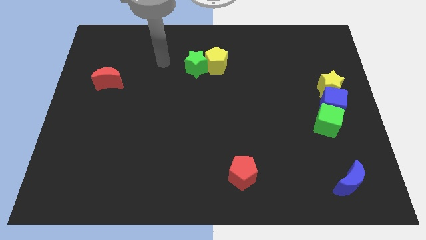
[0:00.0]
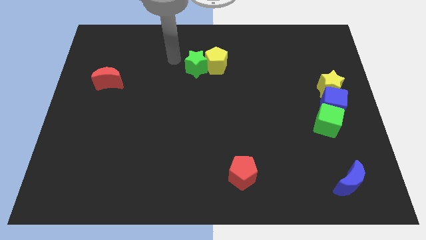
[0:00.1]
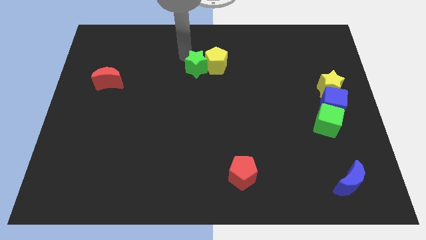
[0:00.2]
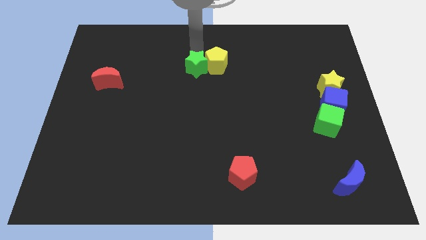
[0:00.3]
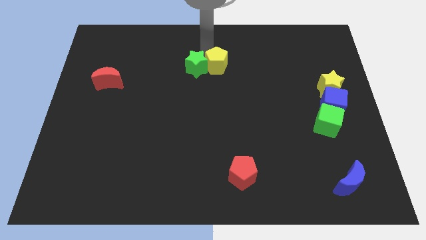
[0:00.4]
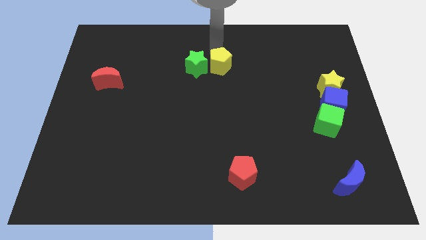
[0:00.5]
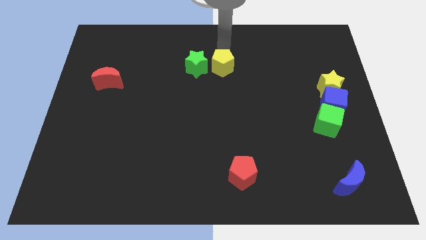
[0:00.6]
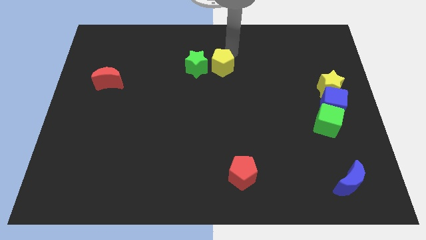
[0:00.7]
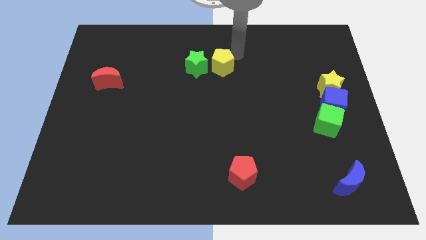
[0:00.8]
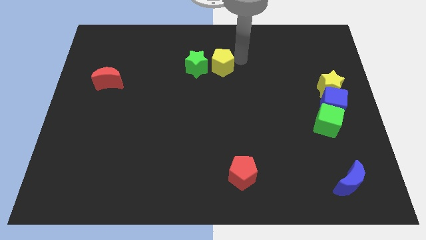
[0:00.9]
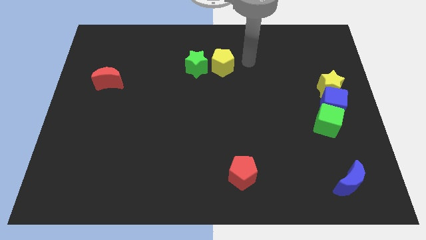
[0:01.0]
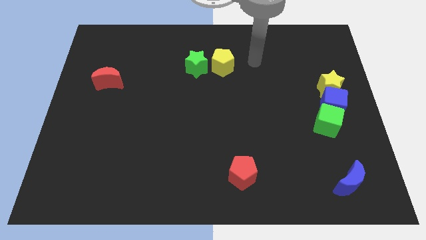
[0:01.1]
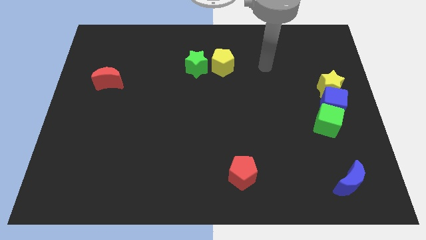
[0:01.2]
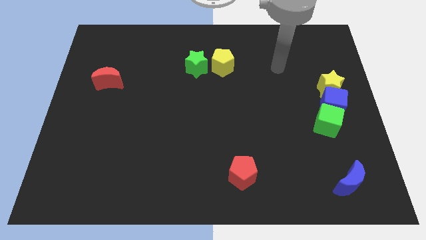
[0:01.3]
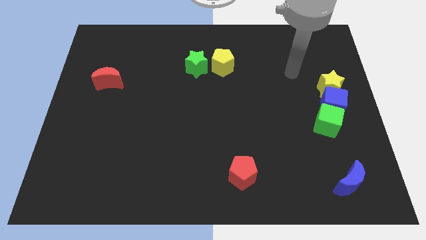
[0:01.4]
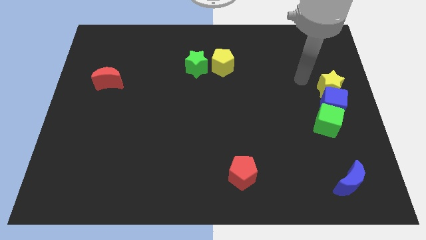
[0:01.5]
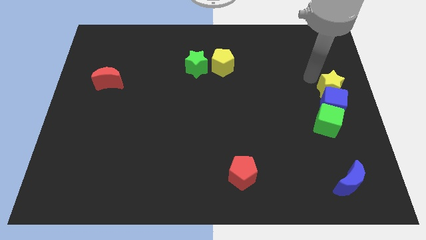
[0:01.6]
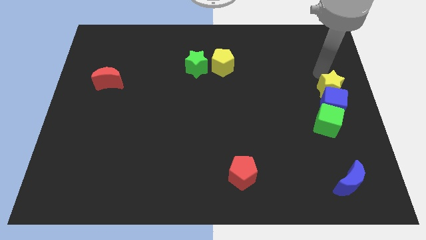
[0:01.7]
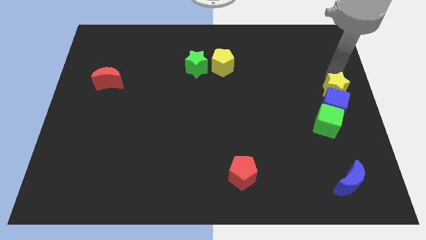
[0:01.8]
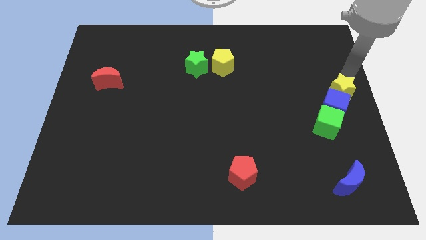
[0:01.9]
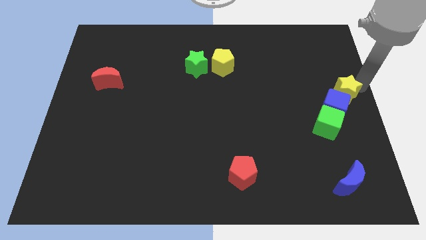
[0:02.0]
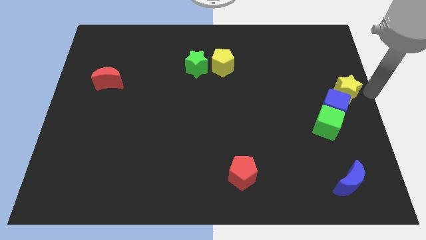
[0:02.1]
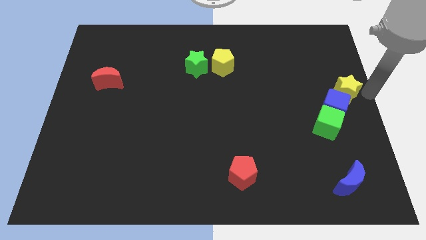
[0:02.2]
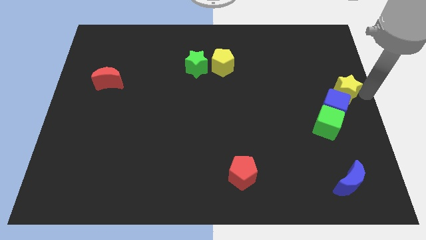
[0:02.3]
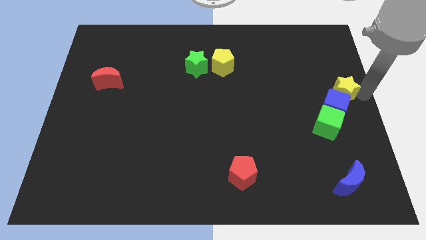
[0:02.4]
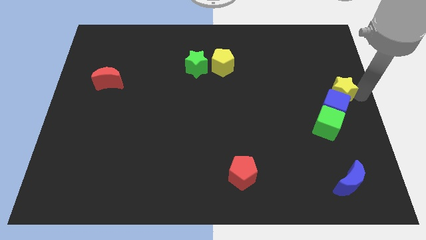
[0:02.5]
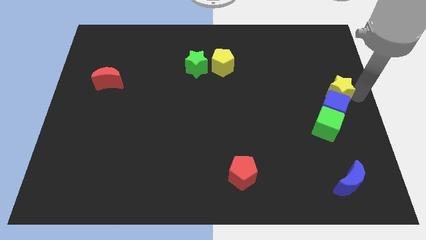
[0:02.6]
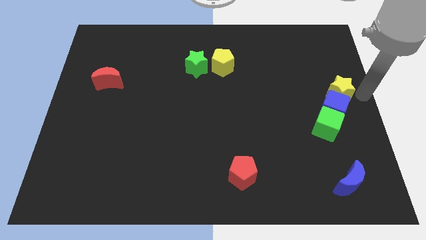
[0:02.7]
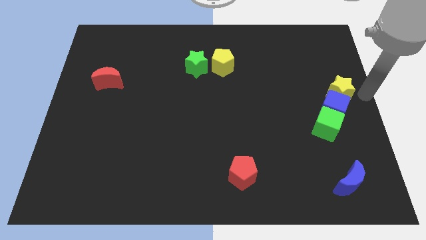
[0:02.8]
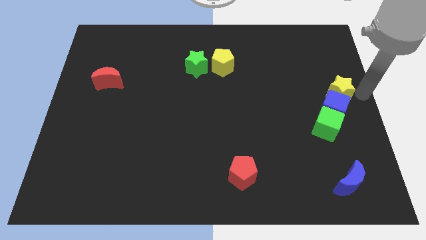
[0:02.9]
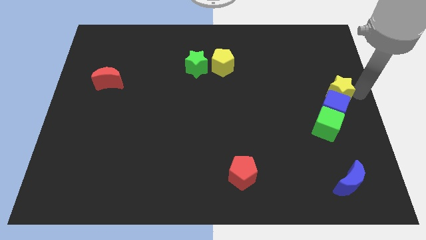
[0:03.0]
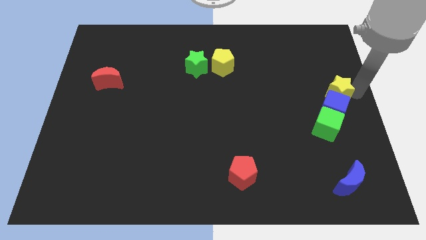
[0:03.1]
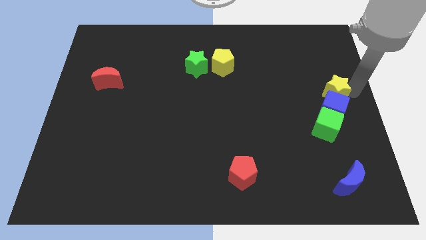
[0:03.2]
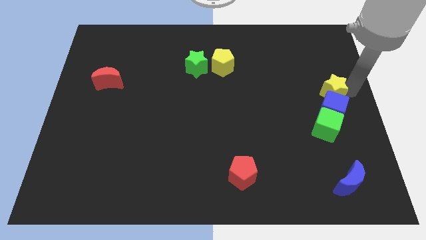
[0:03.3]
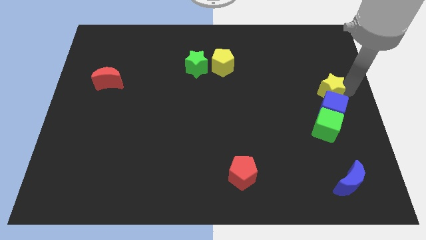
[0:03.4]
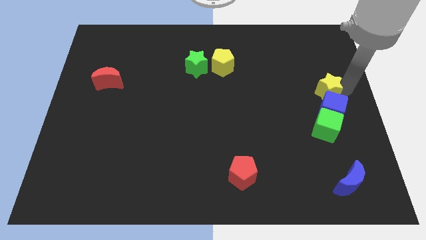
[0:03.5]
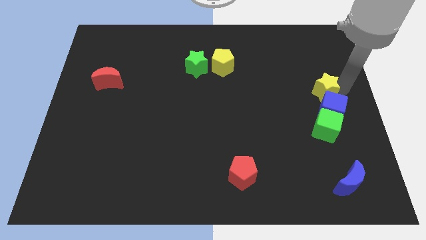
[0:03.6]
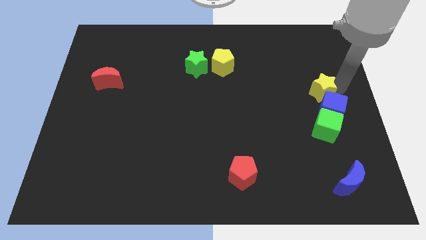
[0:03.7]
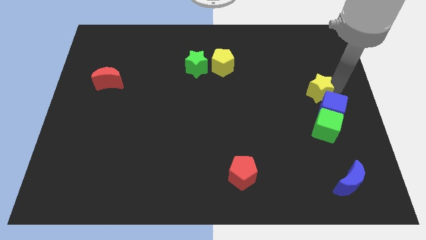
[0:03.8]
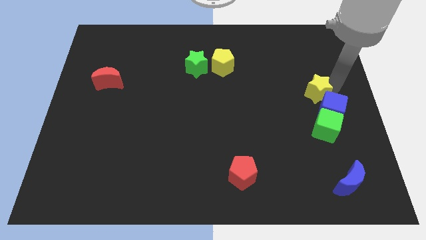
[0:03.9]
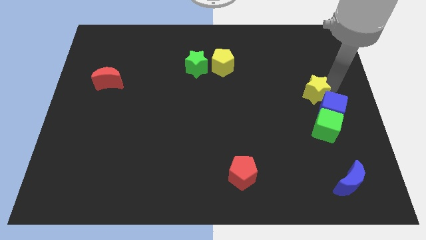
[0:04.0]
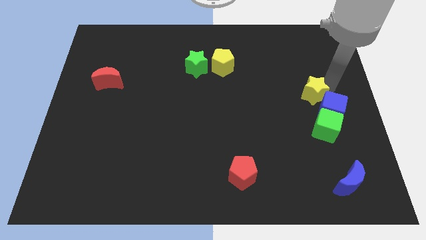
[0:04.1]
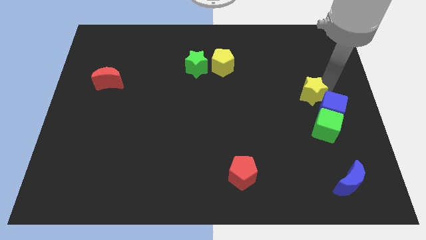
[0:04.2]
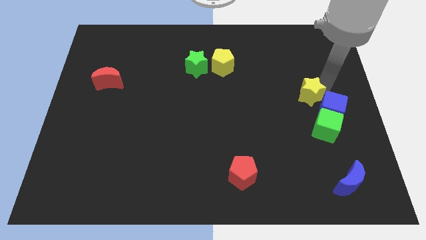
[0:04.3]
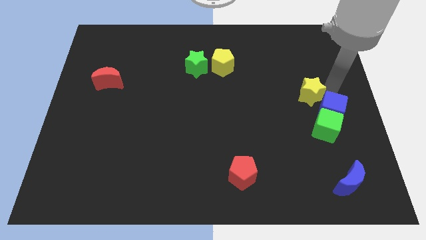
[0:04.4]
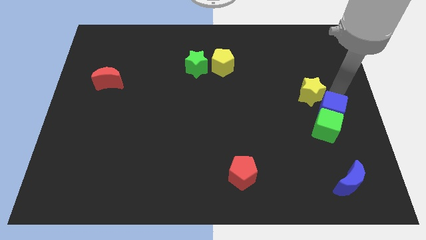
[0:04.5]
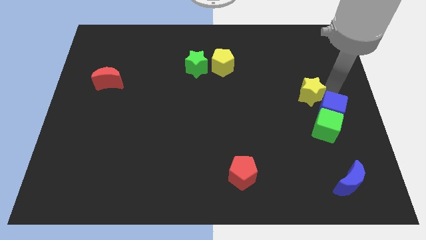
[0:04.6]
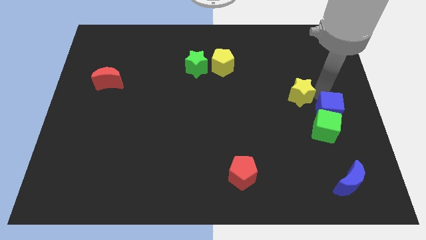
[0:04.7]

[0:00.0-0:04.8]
slide the yellow star left a bit

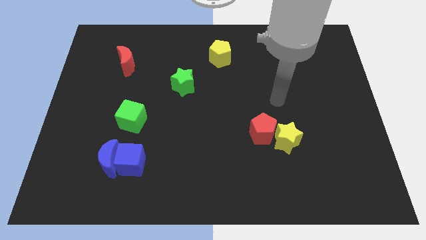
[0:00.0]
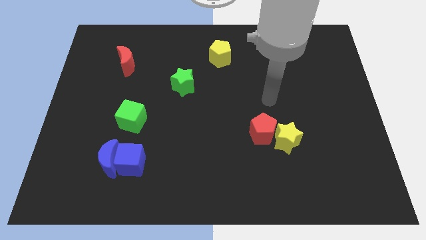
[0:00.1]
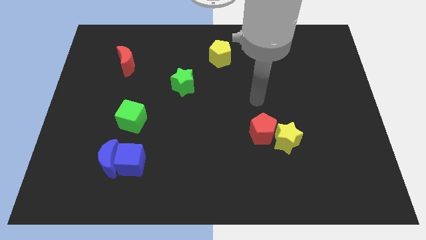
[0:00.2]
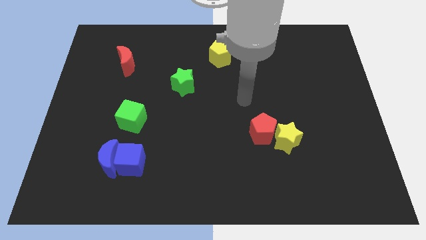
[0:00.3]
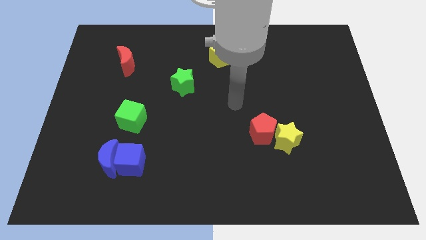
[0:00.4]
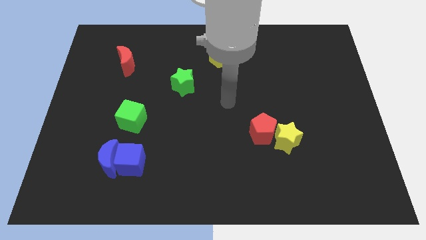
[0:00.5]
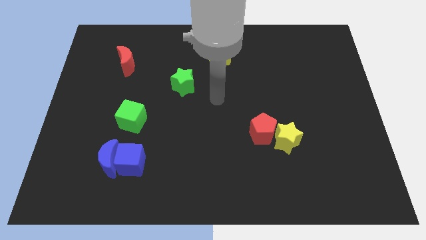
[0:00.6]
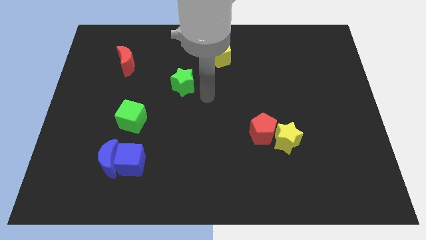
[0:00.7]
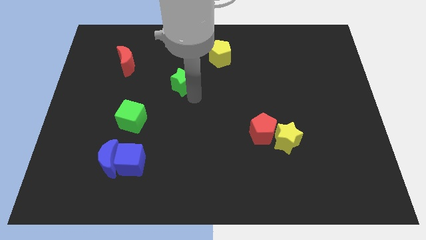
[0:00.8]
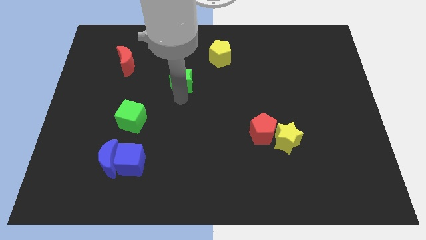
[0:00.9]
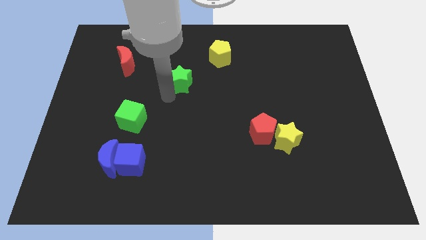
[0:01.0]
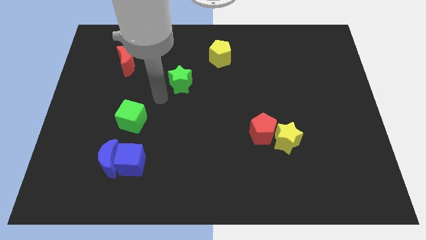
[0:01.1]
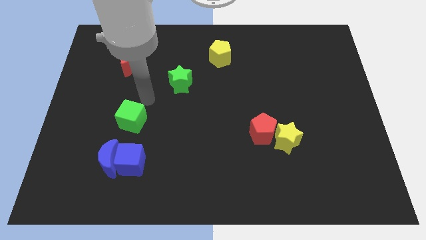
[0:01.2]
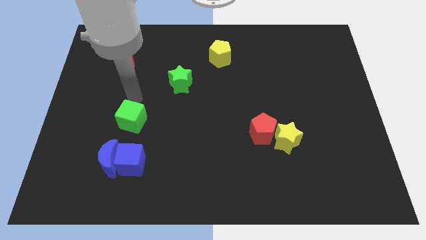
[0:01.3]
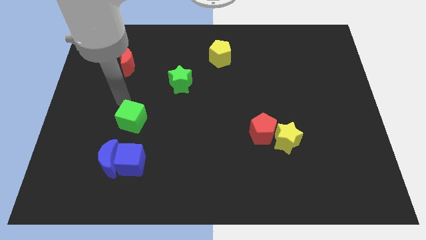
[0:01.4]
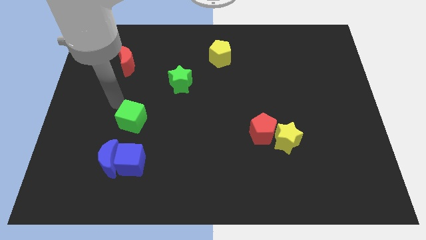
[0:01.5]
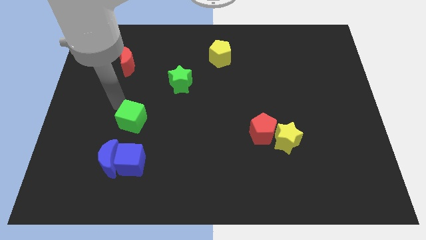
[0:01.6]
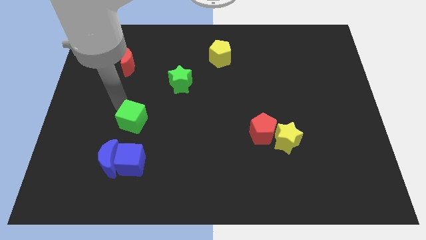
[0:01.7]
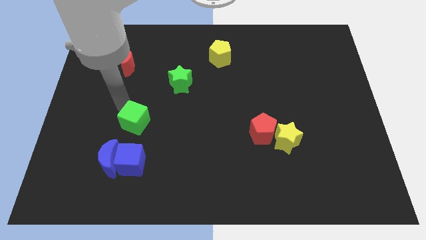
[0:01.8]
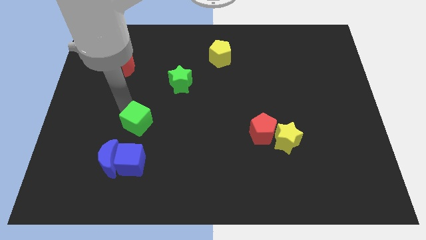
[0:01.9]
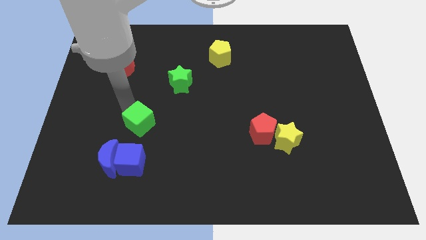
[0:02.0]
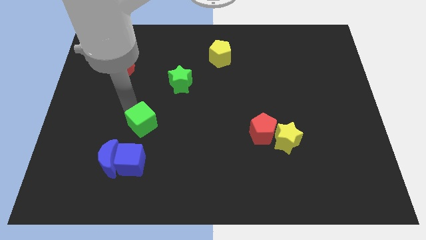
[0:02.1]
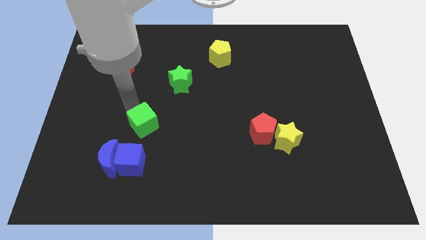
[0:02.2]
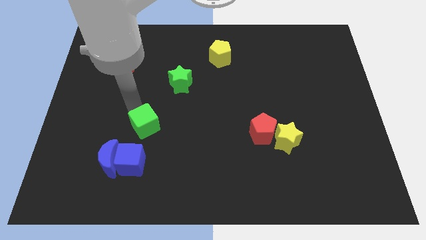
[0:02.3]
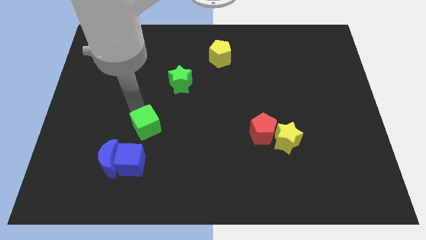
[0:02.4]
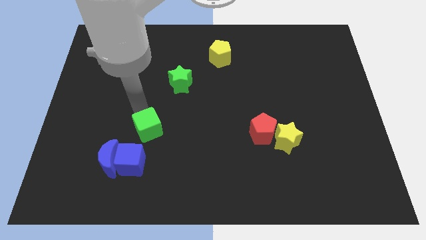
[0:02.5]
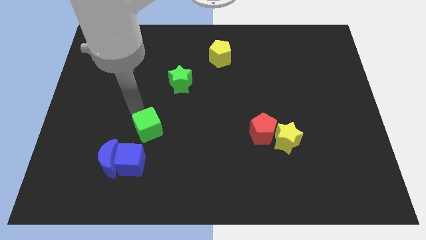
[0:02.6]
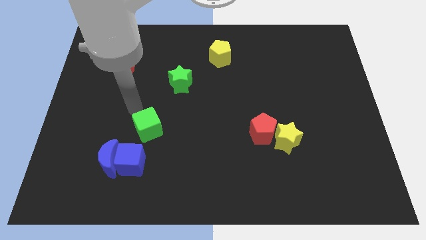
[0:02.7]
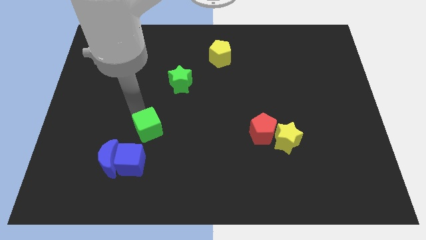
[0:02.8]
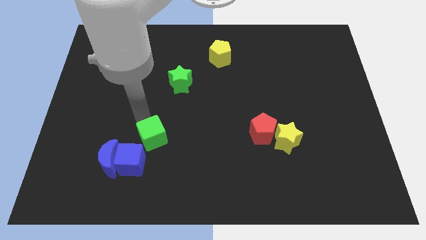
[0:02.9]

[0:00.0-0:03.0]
slightly move the green cube diagonally downwards and right

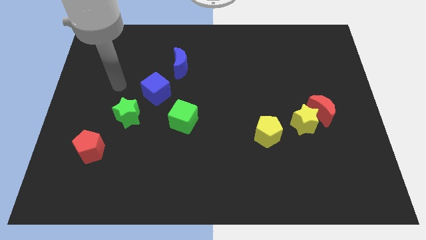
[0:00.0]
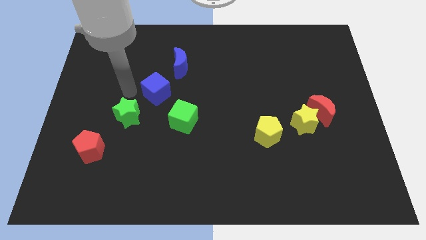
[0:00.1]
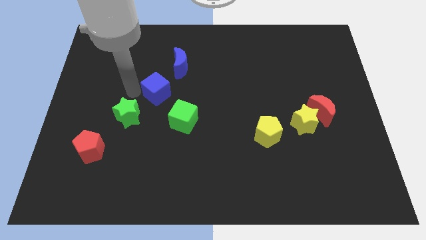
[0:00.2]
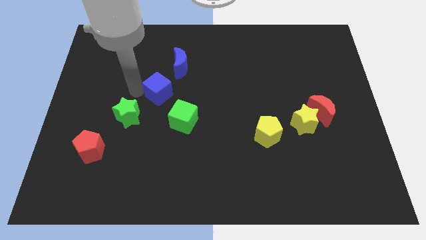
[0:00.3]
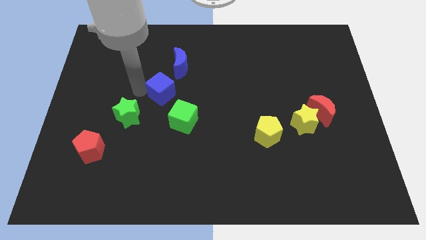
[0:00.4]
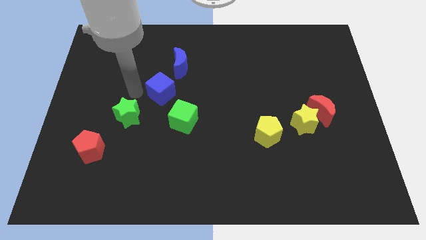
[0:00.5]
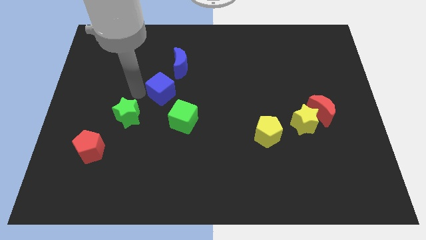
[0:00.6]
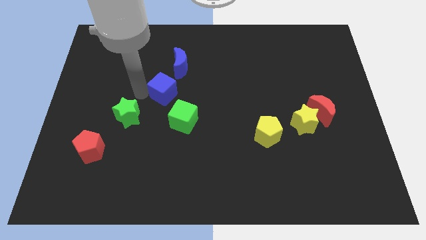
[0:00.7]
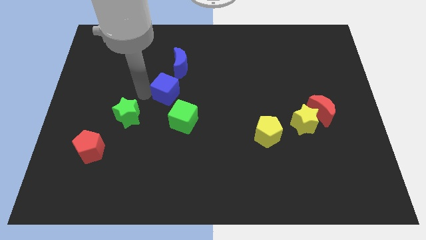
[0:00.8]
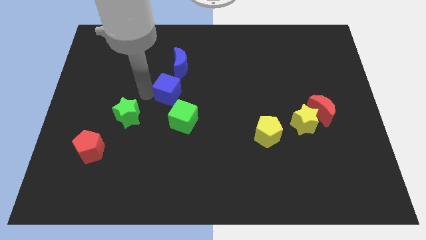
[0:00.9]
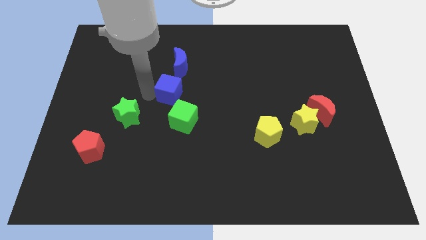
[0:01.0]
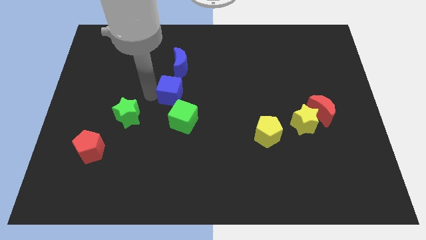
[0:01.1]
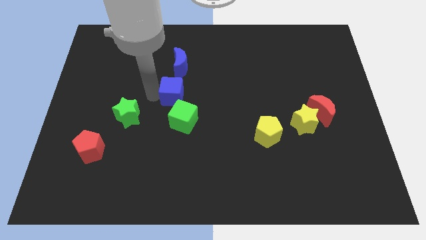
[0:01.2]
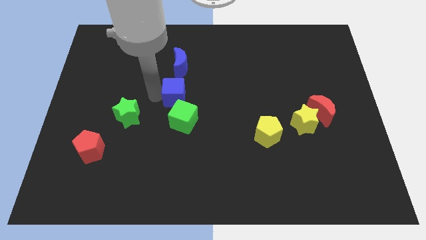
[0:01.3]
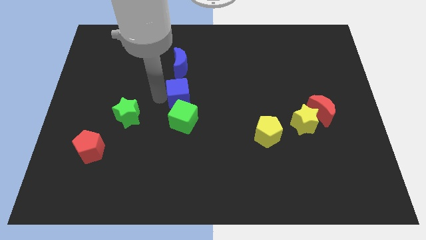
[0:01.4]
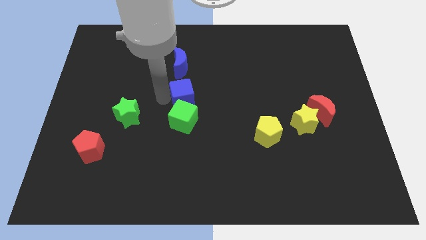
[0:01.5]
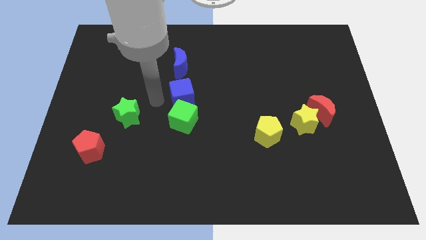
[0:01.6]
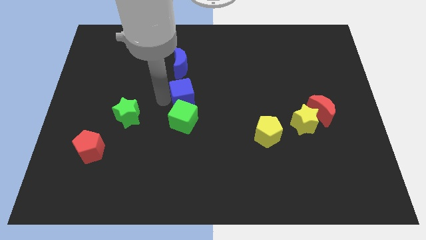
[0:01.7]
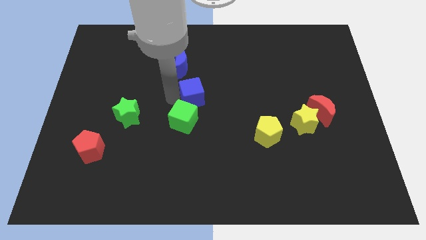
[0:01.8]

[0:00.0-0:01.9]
slightly slide the blue cube right
